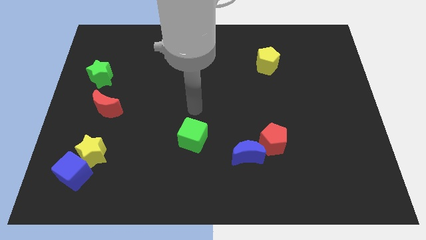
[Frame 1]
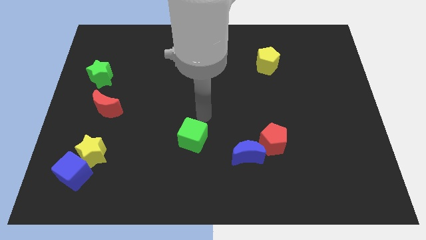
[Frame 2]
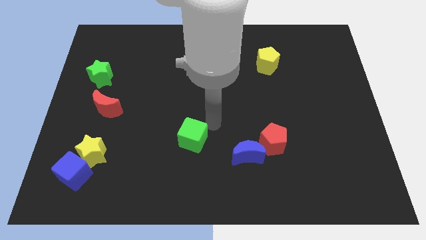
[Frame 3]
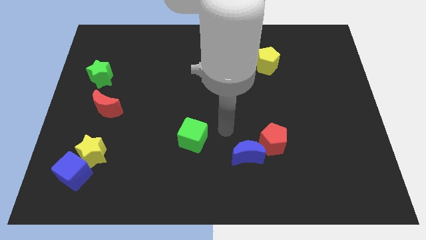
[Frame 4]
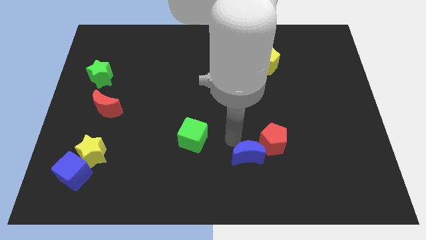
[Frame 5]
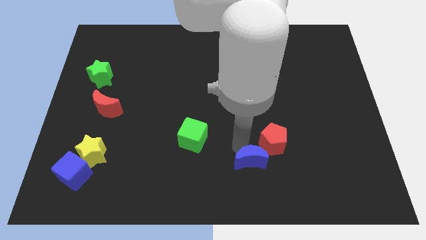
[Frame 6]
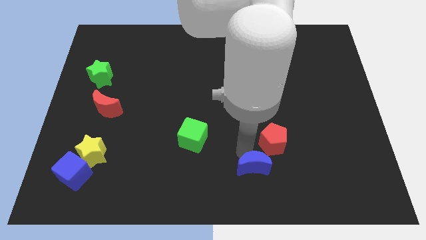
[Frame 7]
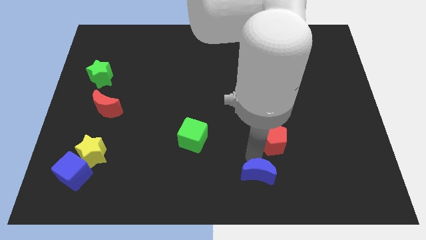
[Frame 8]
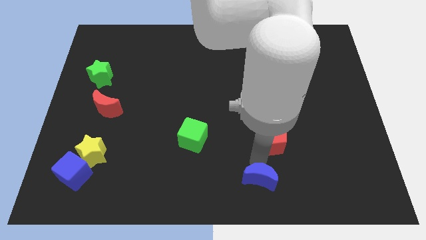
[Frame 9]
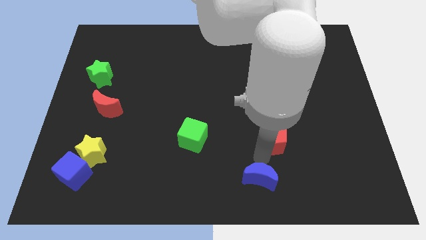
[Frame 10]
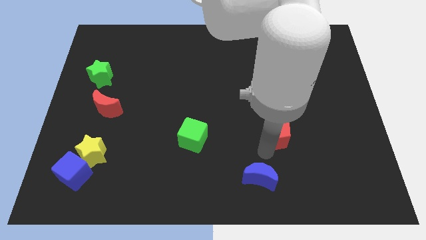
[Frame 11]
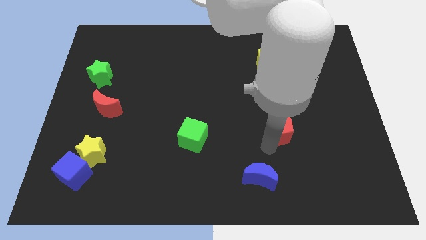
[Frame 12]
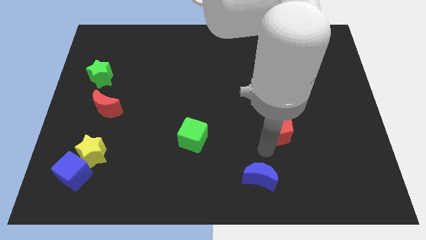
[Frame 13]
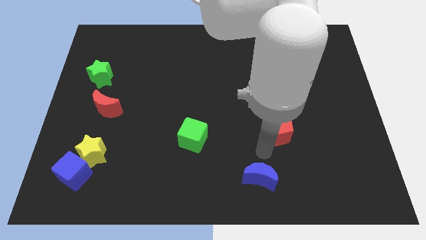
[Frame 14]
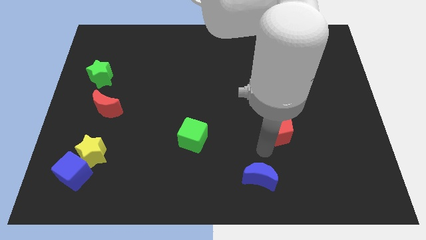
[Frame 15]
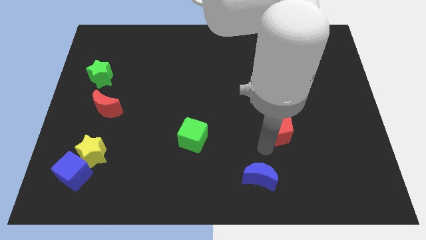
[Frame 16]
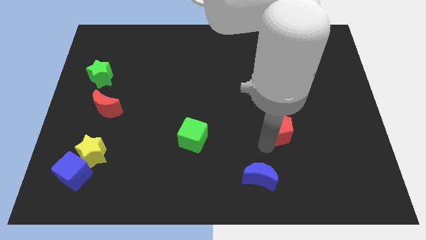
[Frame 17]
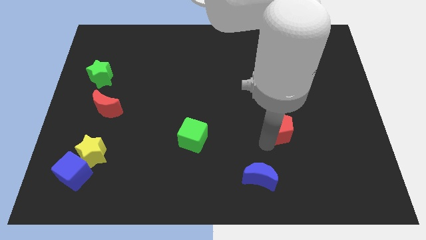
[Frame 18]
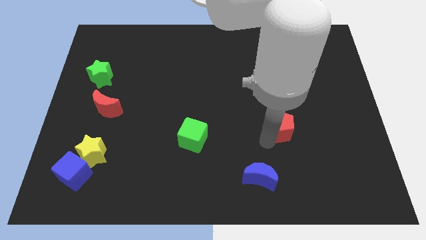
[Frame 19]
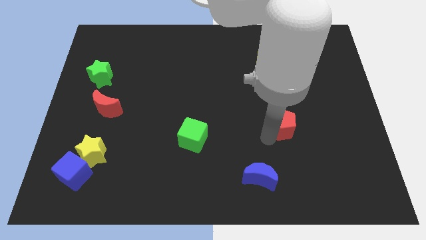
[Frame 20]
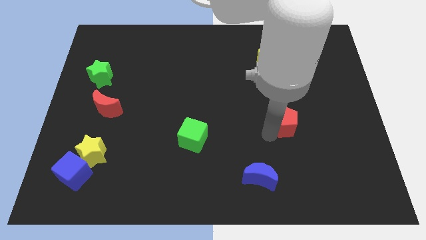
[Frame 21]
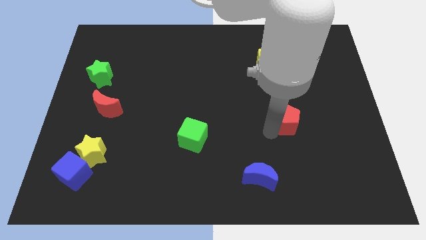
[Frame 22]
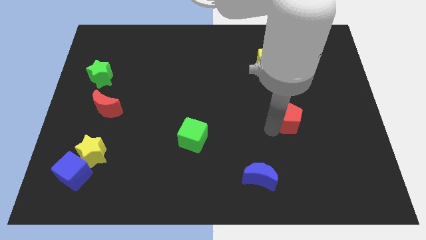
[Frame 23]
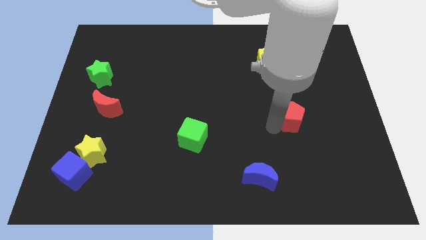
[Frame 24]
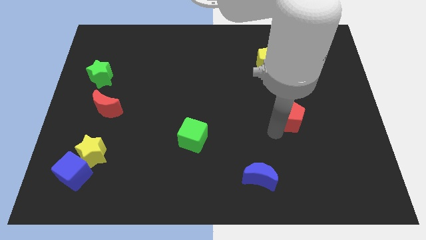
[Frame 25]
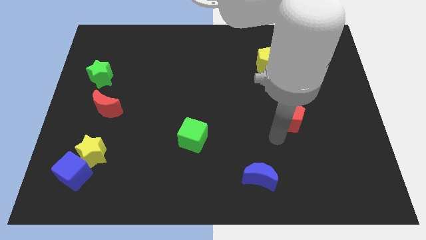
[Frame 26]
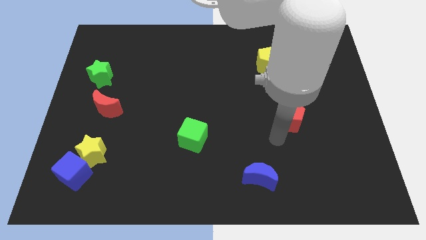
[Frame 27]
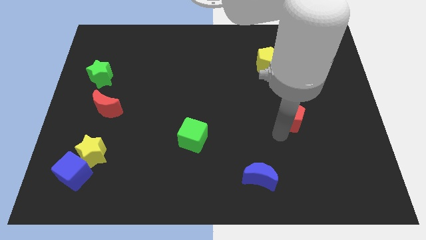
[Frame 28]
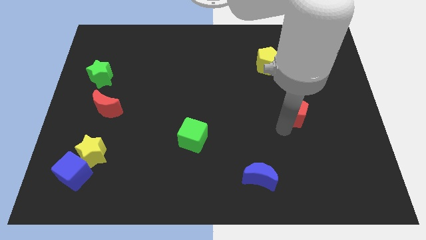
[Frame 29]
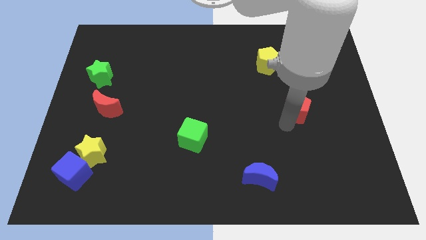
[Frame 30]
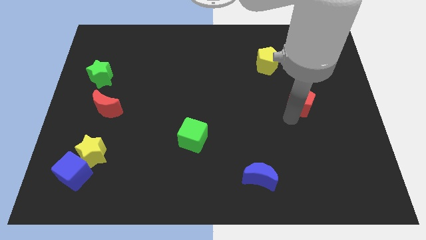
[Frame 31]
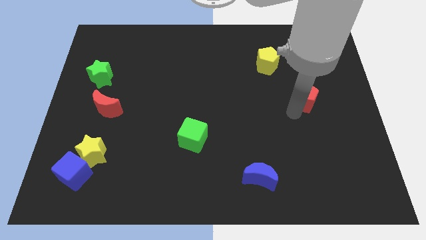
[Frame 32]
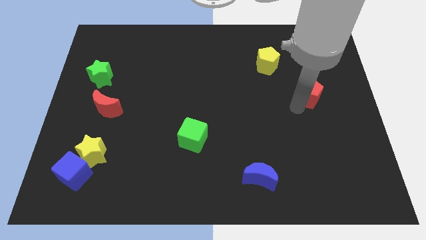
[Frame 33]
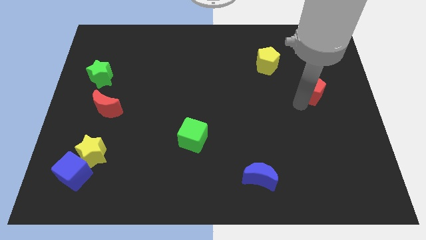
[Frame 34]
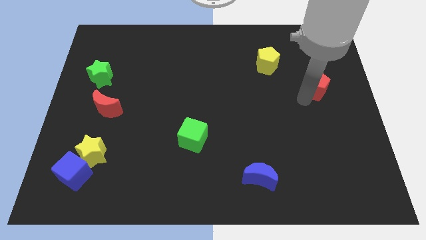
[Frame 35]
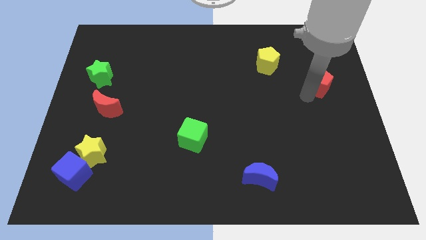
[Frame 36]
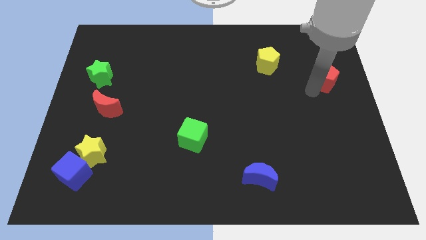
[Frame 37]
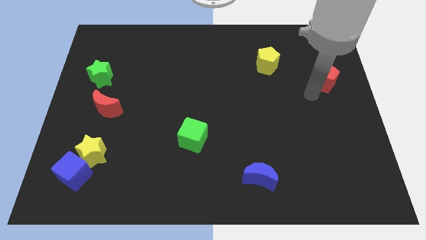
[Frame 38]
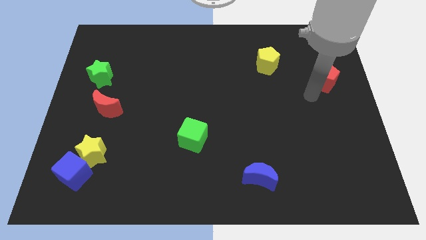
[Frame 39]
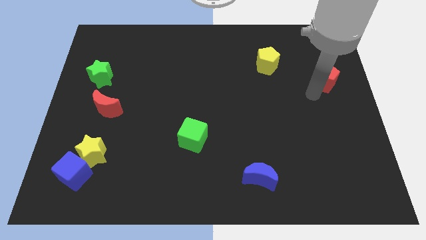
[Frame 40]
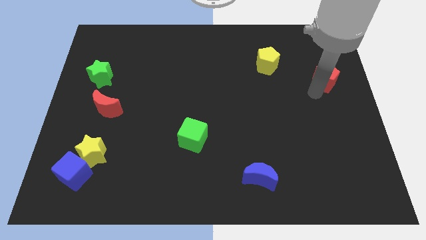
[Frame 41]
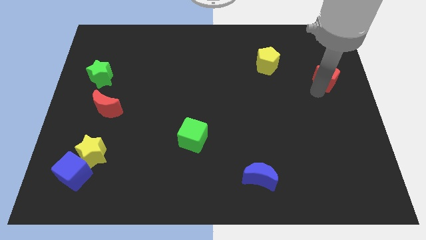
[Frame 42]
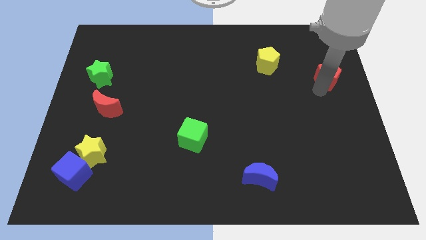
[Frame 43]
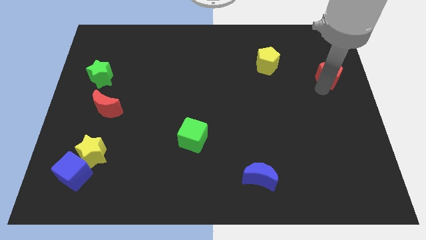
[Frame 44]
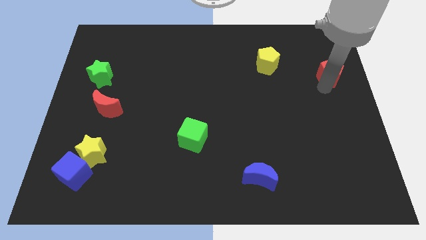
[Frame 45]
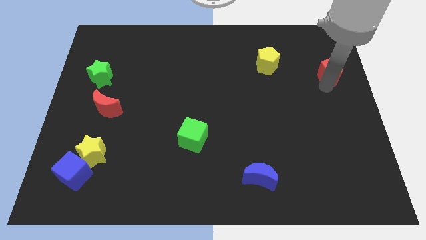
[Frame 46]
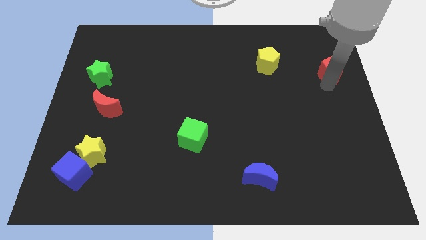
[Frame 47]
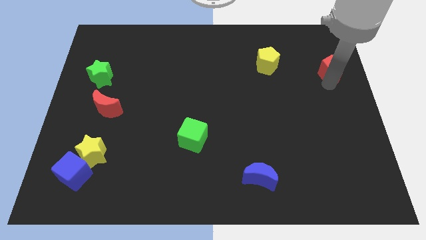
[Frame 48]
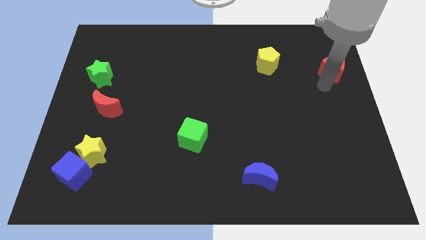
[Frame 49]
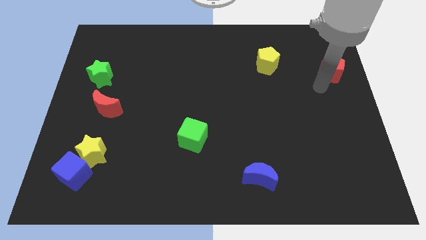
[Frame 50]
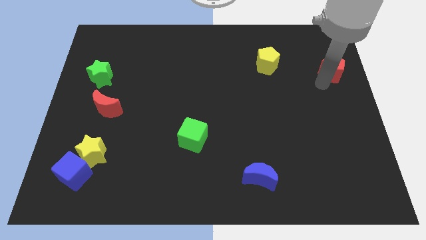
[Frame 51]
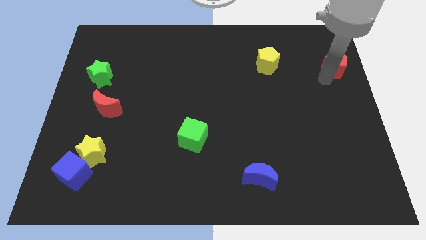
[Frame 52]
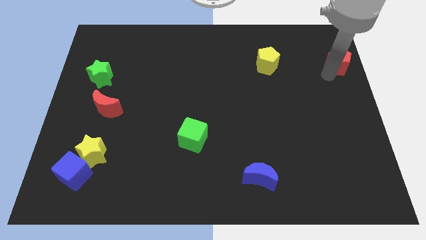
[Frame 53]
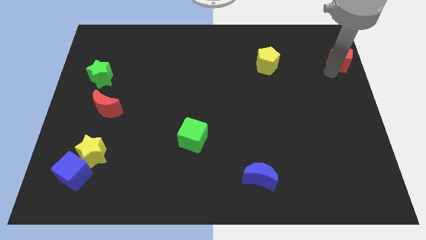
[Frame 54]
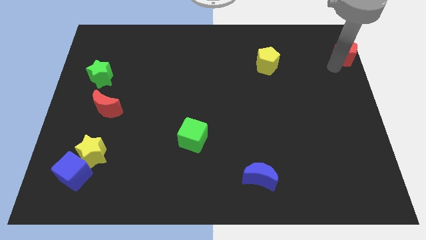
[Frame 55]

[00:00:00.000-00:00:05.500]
push the red pentagon to the top right corner

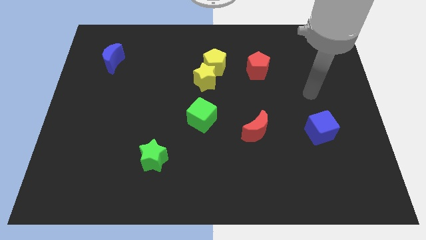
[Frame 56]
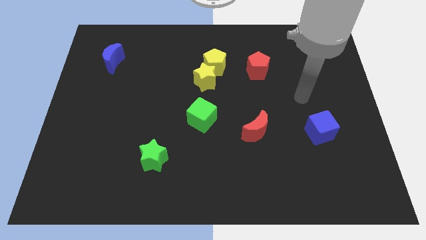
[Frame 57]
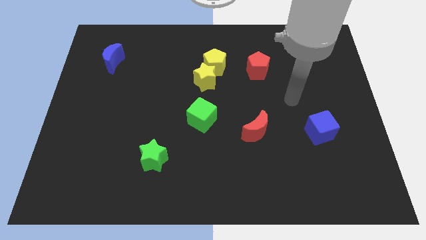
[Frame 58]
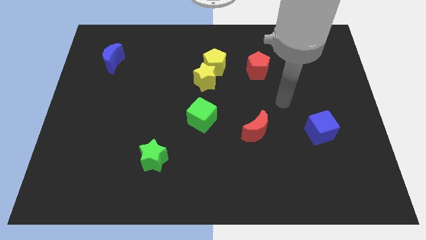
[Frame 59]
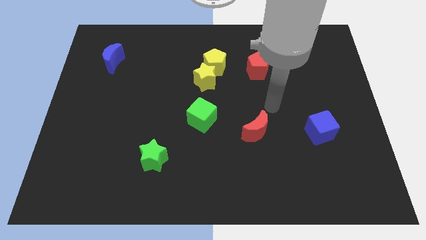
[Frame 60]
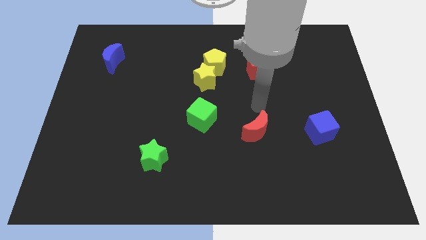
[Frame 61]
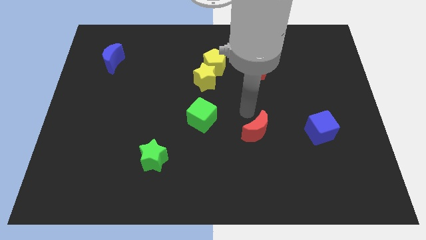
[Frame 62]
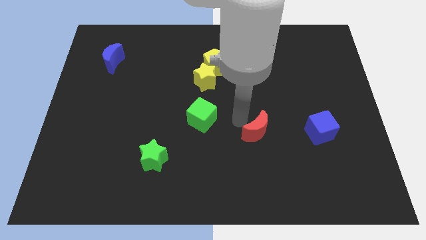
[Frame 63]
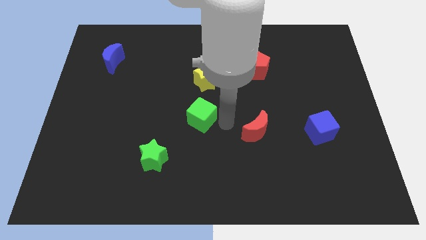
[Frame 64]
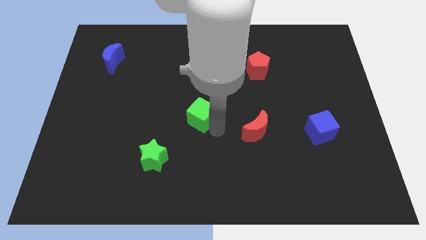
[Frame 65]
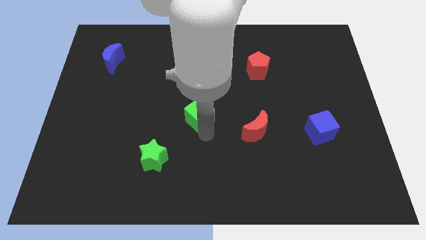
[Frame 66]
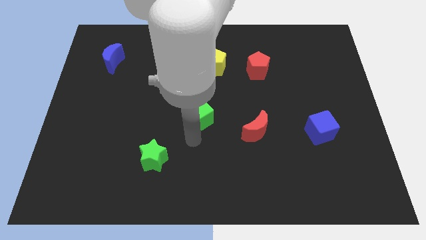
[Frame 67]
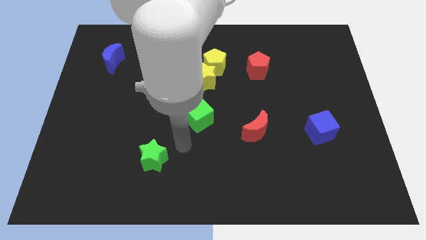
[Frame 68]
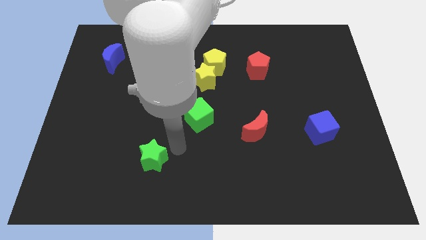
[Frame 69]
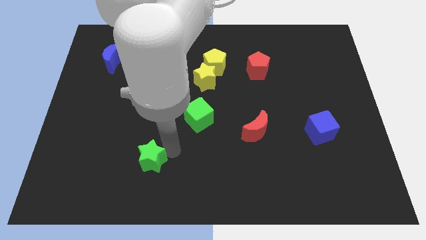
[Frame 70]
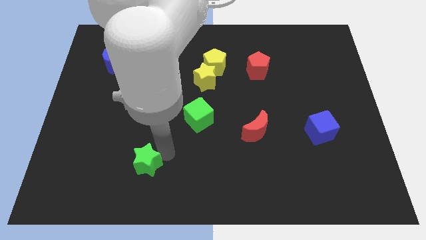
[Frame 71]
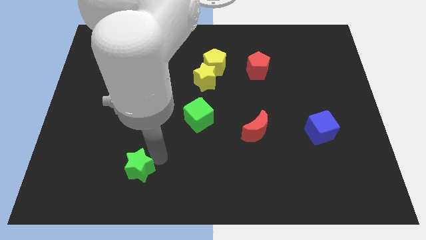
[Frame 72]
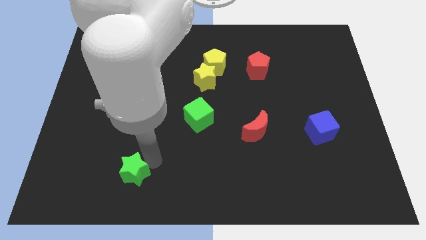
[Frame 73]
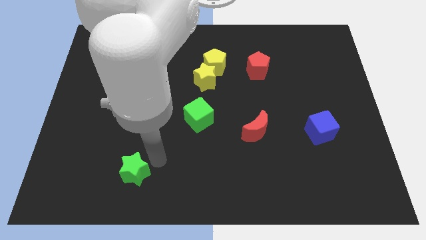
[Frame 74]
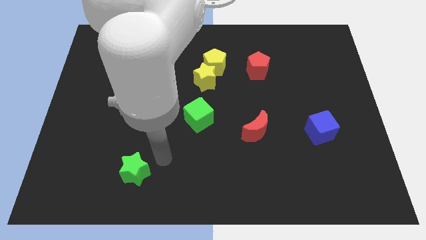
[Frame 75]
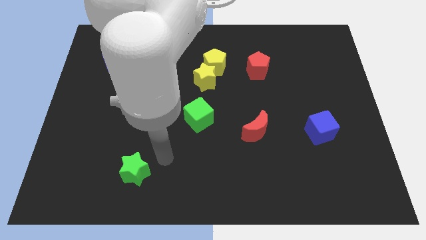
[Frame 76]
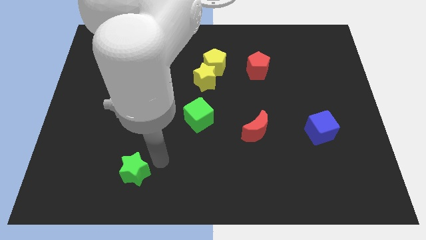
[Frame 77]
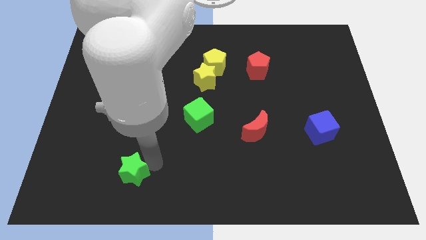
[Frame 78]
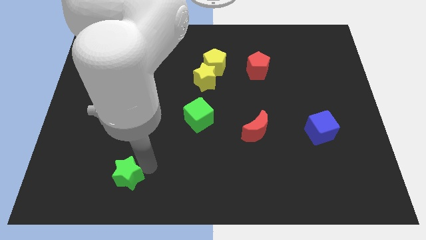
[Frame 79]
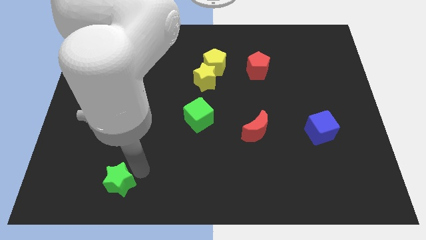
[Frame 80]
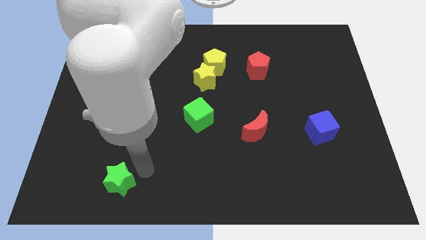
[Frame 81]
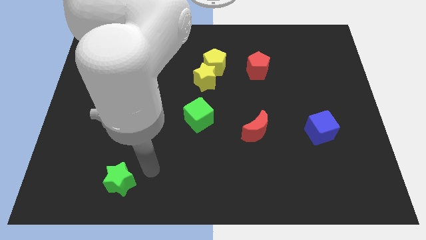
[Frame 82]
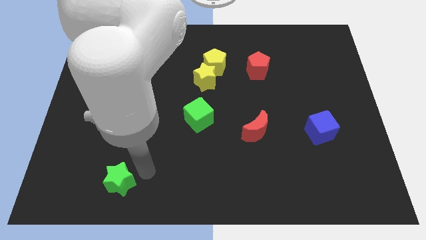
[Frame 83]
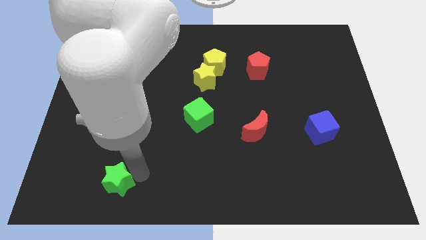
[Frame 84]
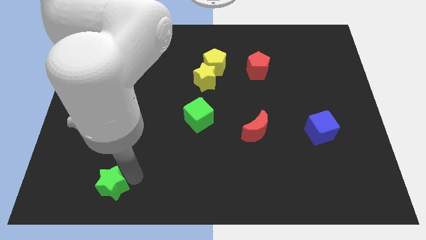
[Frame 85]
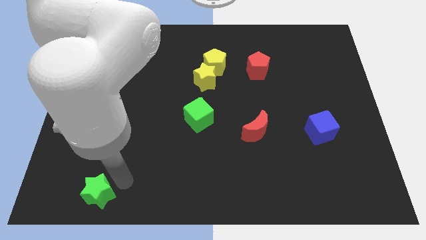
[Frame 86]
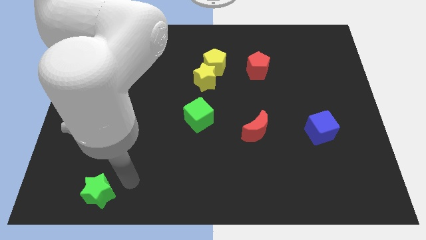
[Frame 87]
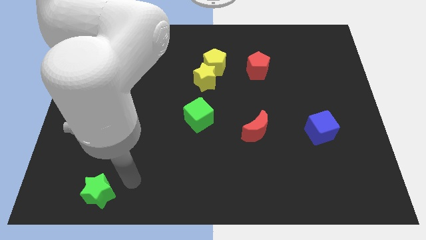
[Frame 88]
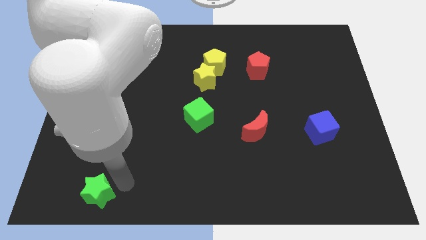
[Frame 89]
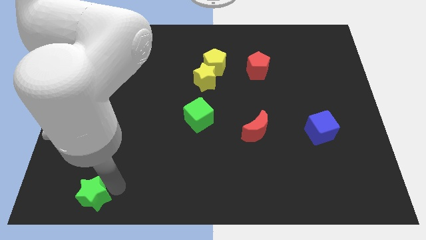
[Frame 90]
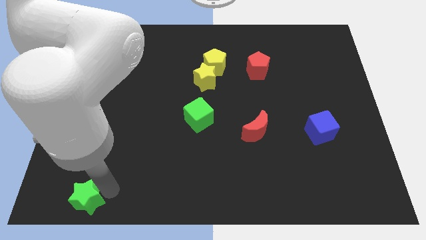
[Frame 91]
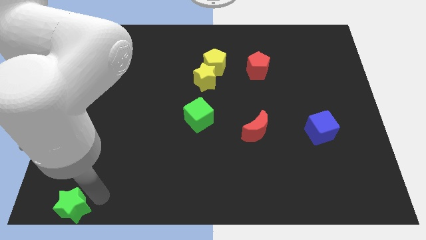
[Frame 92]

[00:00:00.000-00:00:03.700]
slide the green star to the lower left corner
